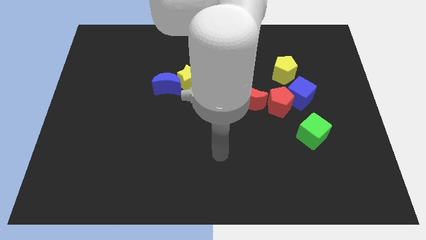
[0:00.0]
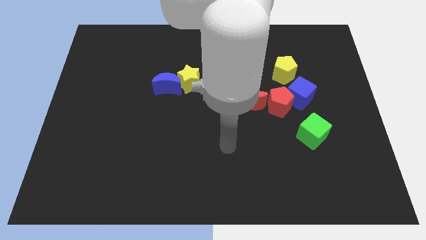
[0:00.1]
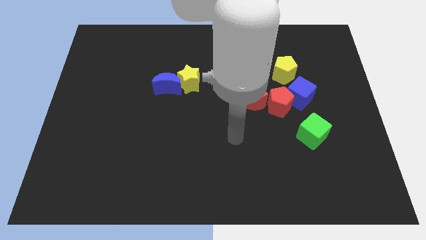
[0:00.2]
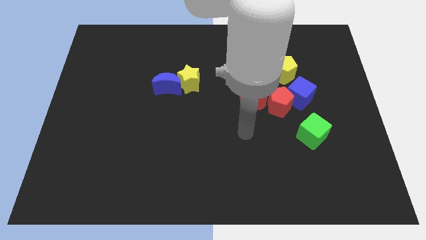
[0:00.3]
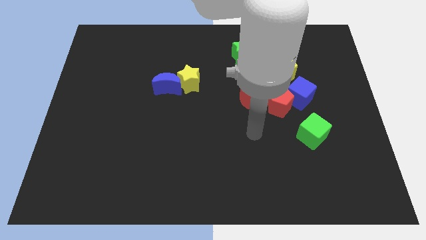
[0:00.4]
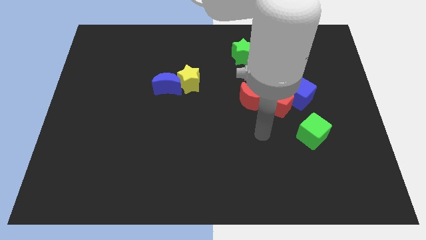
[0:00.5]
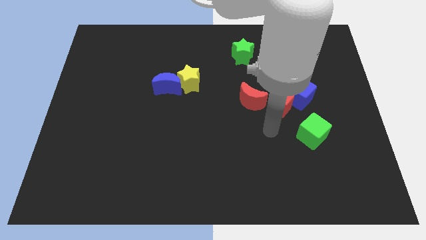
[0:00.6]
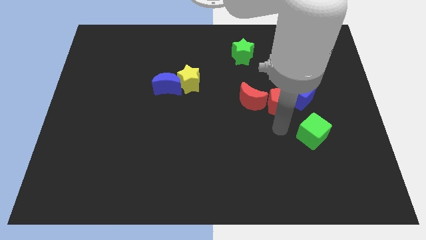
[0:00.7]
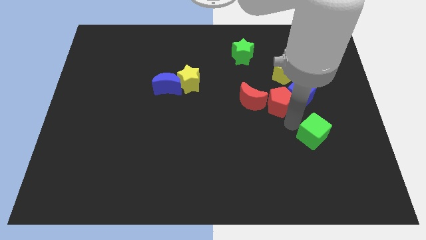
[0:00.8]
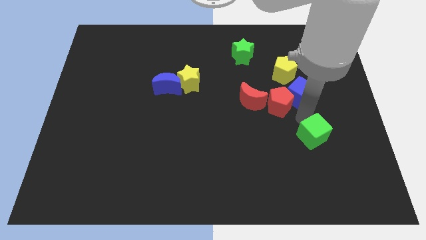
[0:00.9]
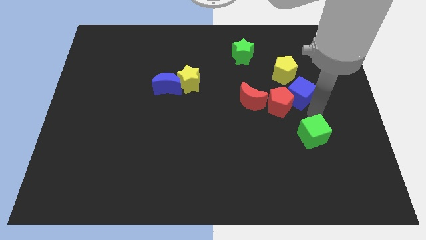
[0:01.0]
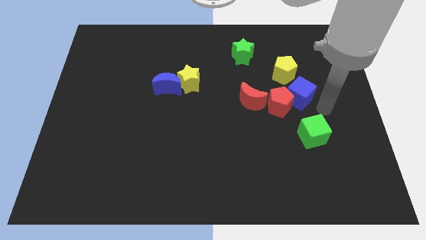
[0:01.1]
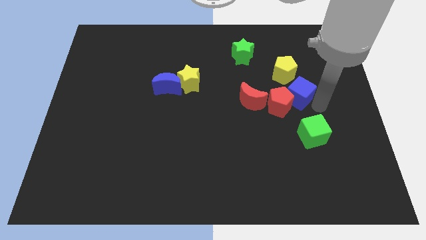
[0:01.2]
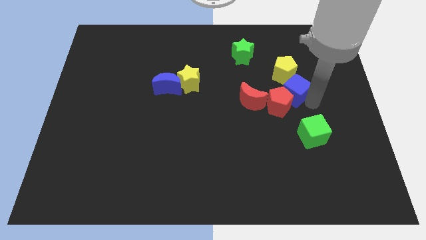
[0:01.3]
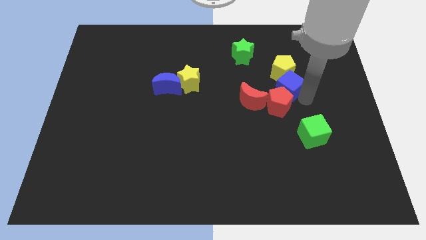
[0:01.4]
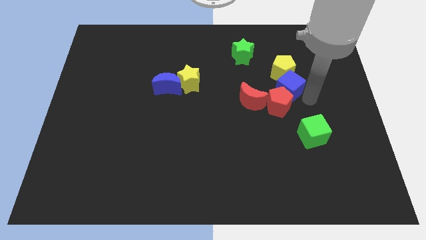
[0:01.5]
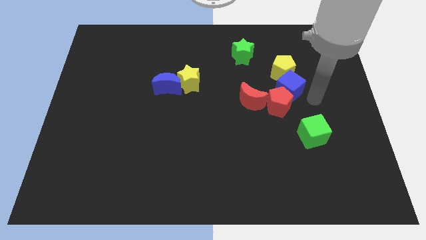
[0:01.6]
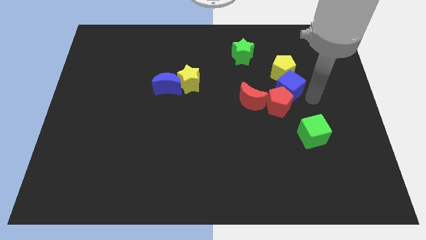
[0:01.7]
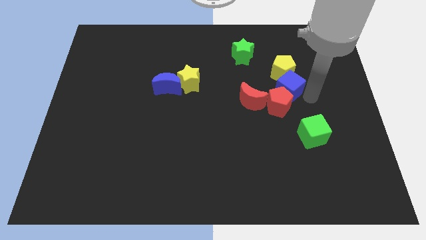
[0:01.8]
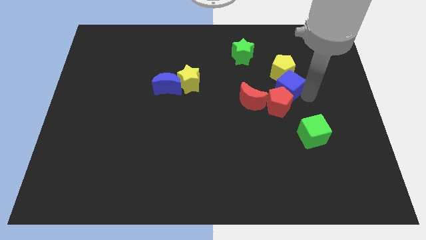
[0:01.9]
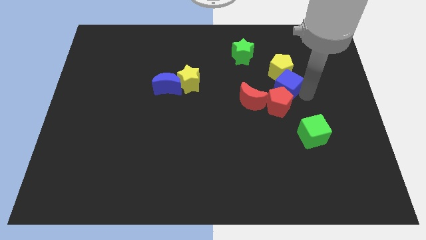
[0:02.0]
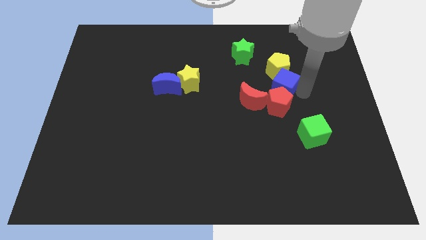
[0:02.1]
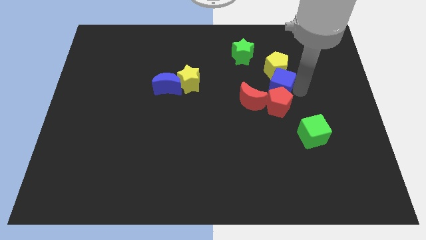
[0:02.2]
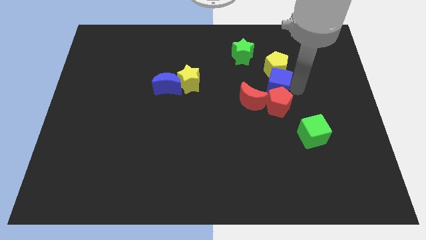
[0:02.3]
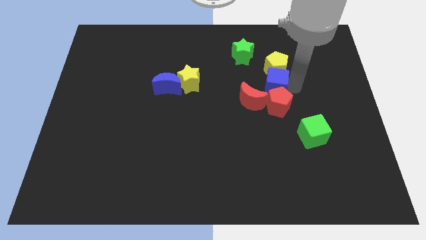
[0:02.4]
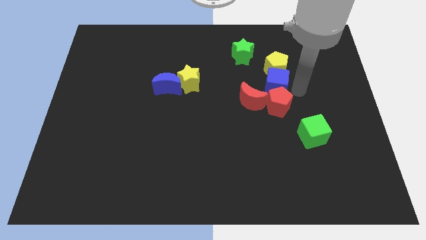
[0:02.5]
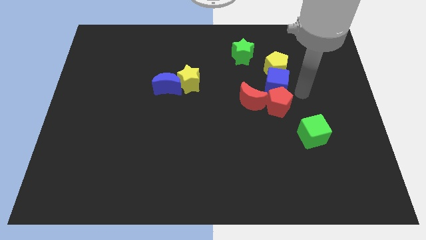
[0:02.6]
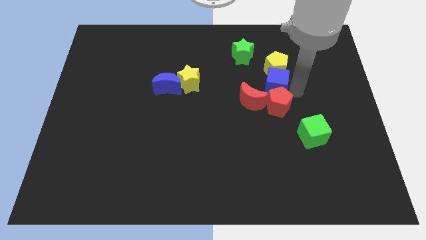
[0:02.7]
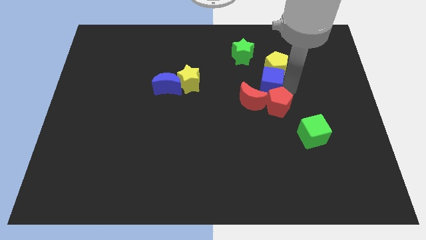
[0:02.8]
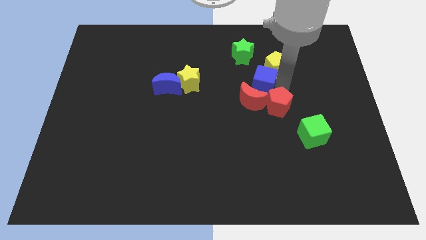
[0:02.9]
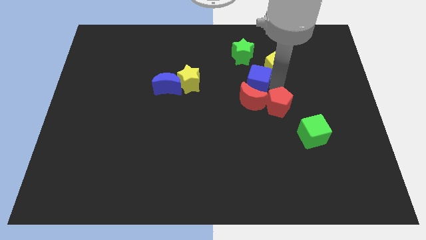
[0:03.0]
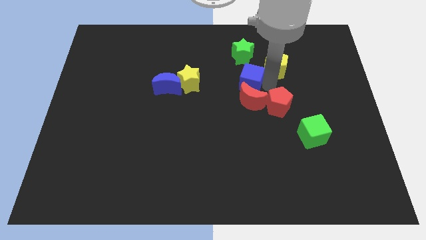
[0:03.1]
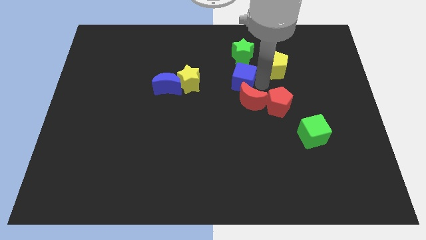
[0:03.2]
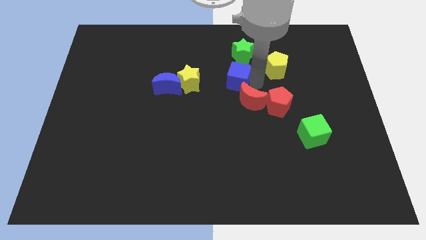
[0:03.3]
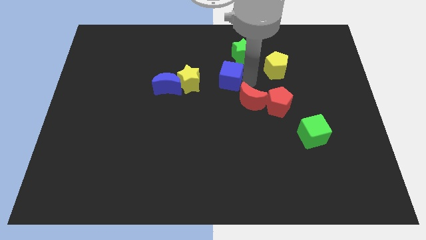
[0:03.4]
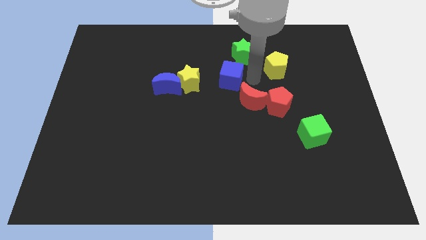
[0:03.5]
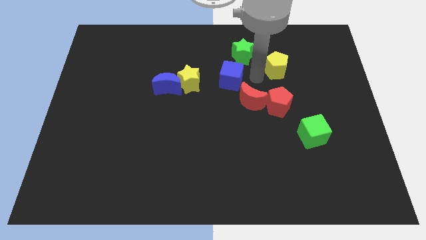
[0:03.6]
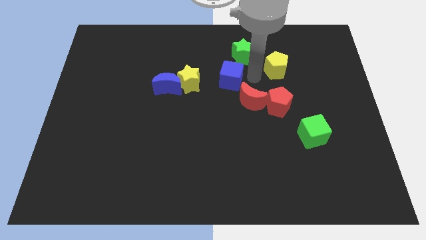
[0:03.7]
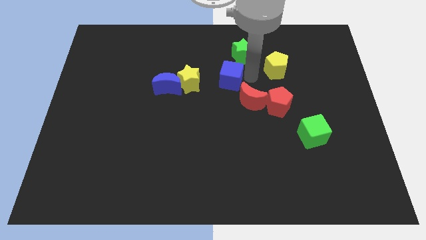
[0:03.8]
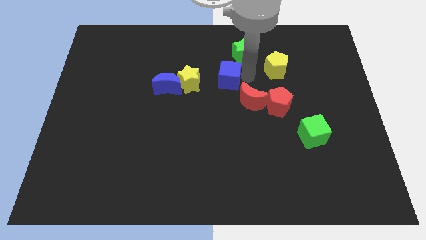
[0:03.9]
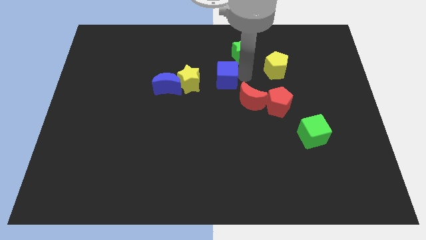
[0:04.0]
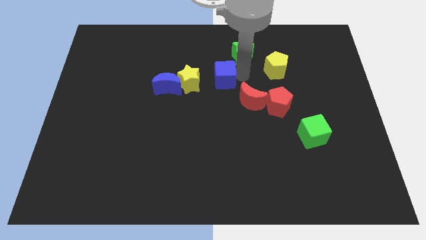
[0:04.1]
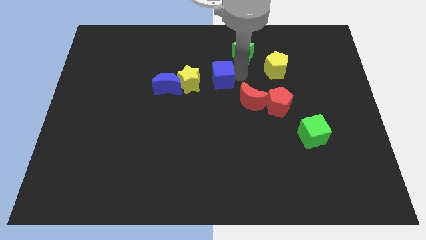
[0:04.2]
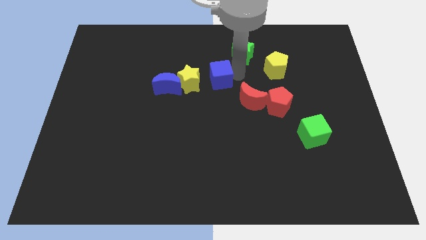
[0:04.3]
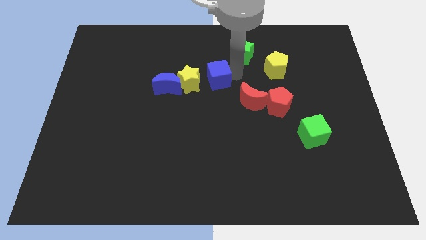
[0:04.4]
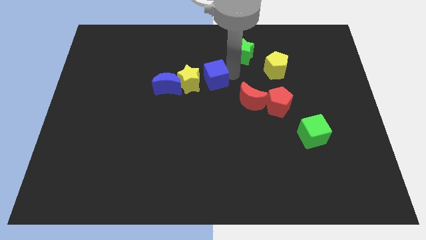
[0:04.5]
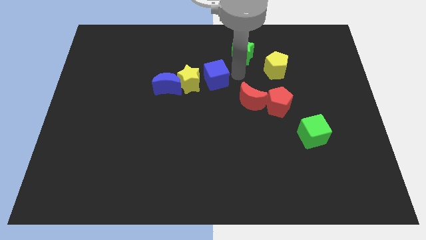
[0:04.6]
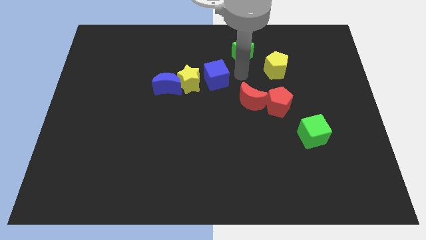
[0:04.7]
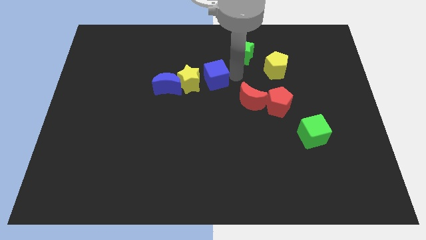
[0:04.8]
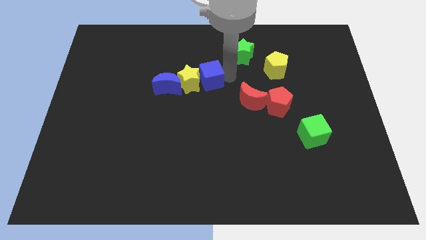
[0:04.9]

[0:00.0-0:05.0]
move the blue cube close to the yellow star

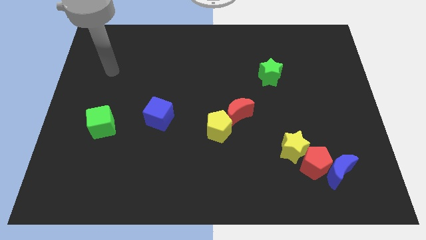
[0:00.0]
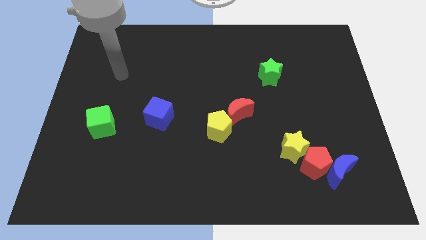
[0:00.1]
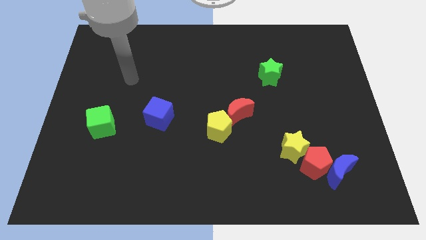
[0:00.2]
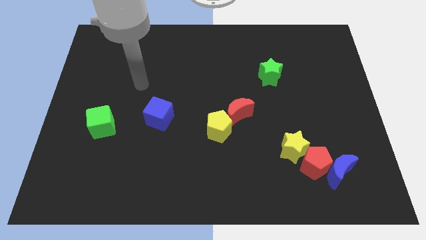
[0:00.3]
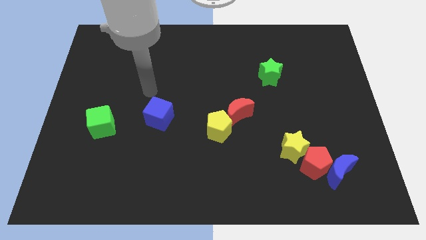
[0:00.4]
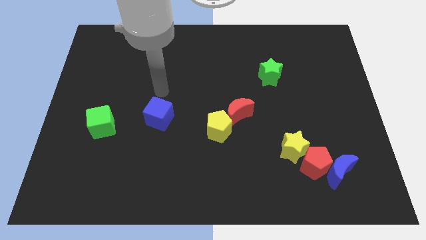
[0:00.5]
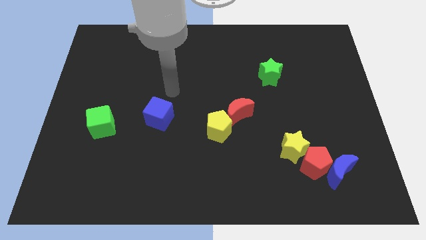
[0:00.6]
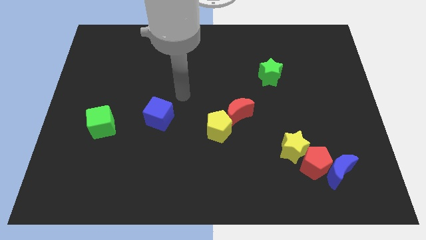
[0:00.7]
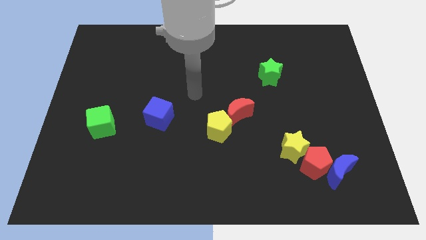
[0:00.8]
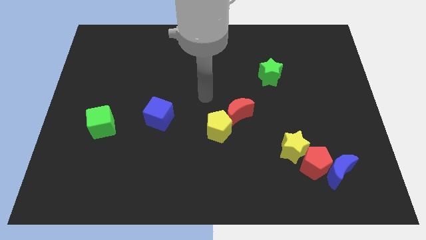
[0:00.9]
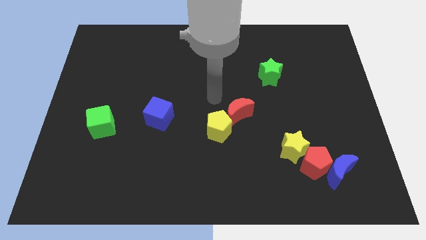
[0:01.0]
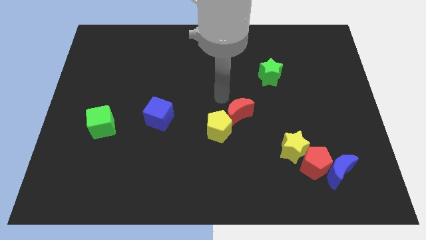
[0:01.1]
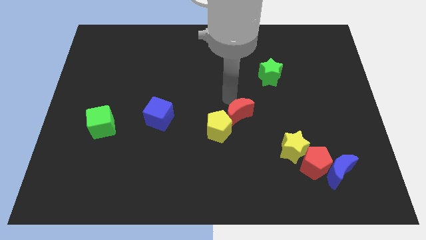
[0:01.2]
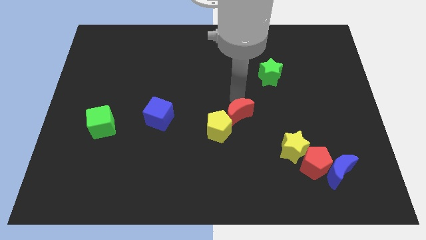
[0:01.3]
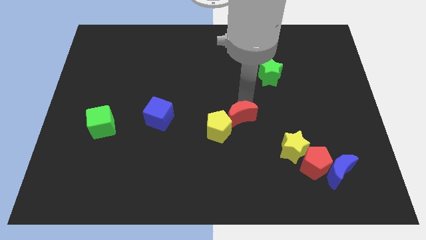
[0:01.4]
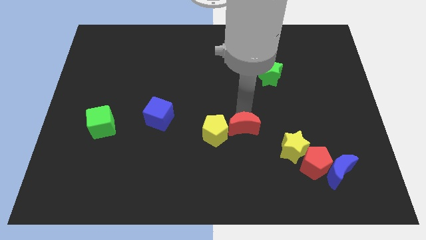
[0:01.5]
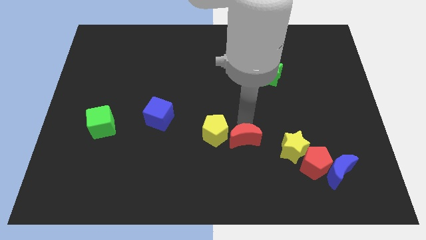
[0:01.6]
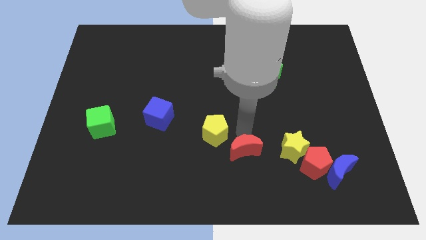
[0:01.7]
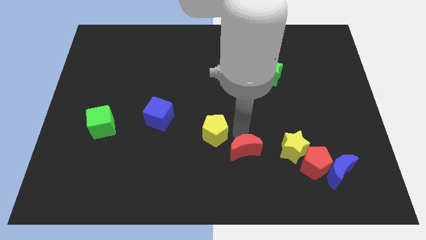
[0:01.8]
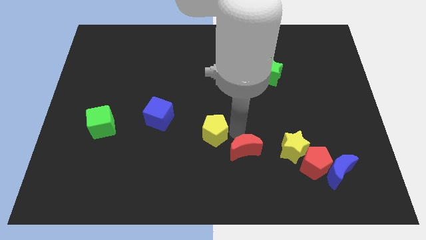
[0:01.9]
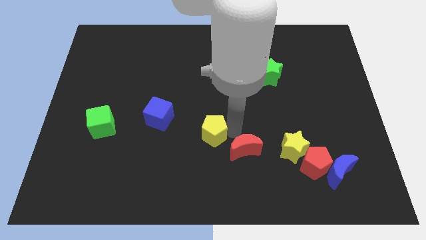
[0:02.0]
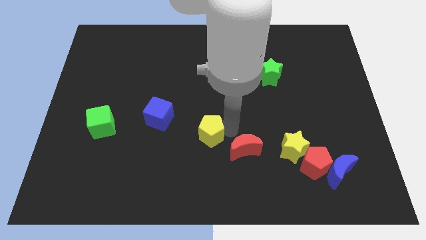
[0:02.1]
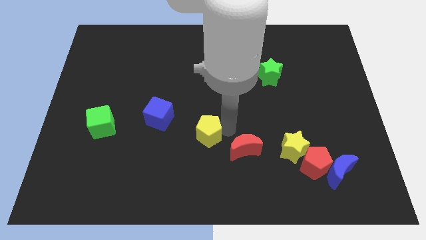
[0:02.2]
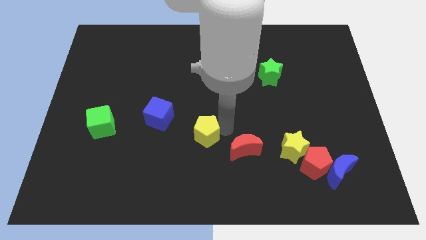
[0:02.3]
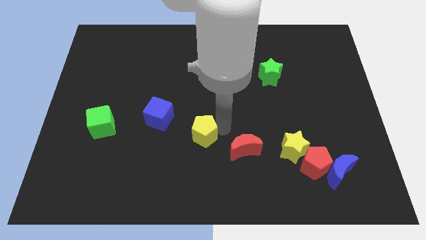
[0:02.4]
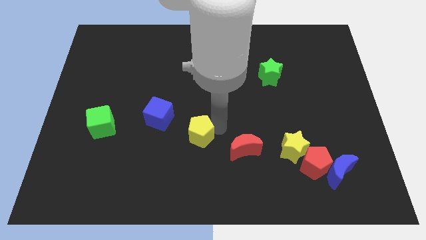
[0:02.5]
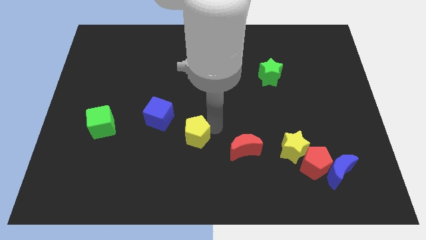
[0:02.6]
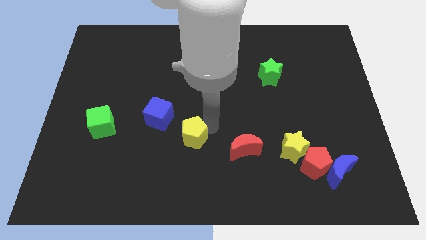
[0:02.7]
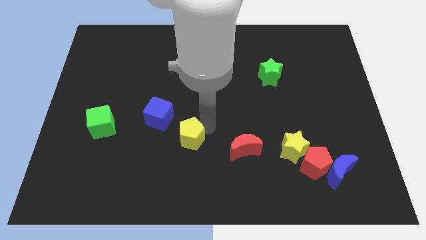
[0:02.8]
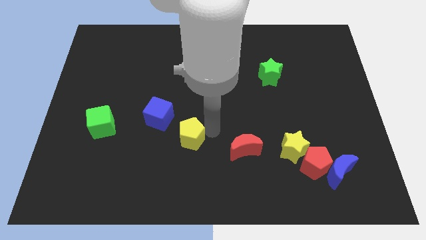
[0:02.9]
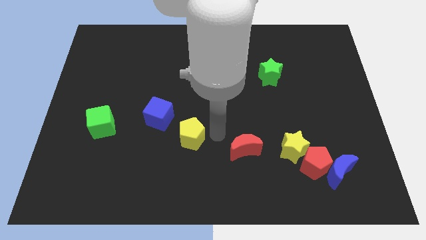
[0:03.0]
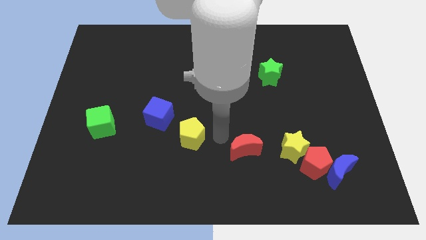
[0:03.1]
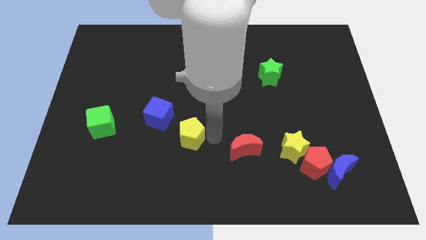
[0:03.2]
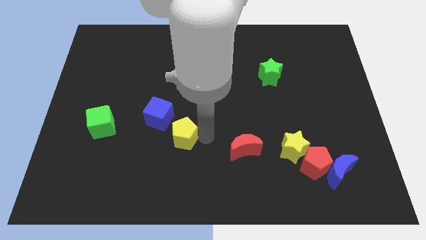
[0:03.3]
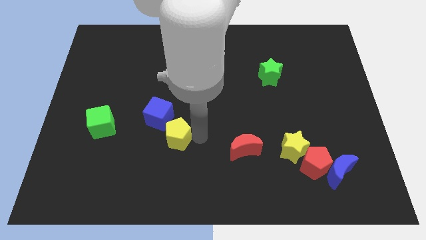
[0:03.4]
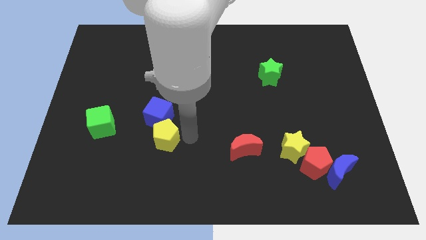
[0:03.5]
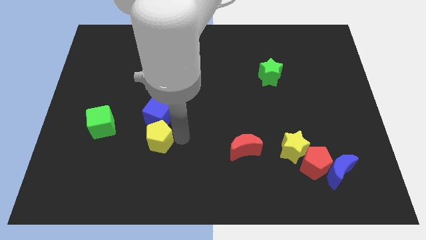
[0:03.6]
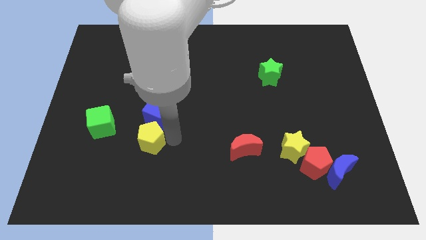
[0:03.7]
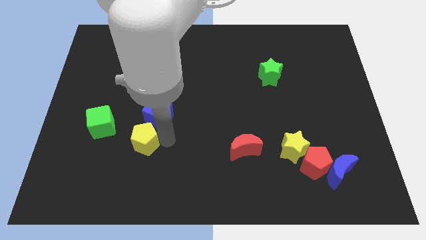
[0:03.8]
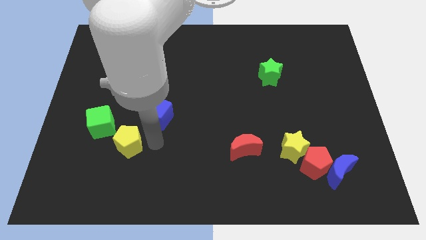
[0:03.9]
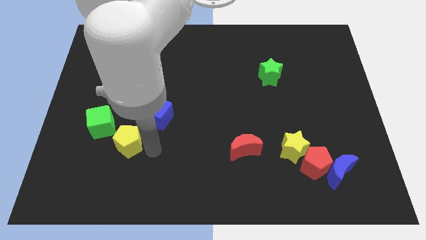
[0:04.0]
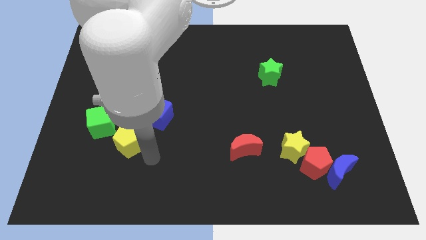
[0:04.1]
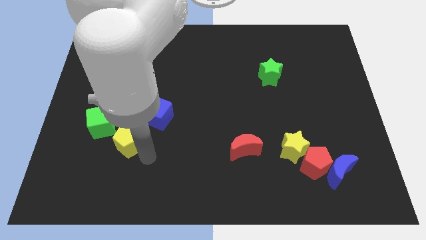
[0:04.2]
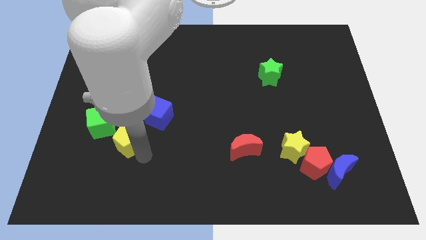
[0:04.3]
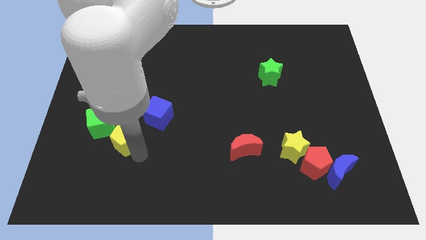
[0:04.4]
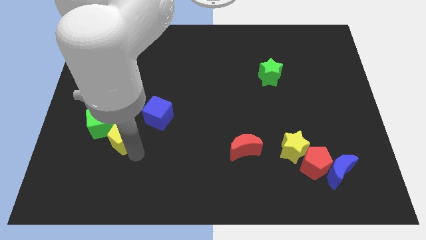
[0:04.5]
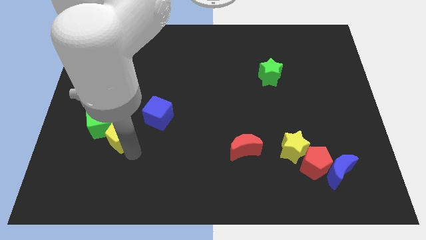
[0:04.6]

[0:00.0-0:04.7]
push the yellow pentagon to the green cube
